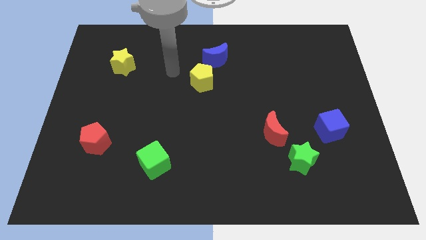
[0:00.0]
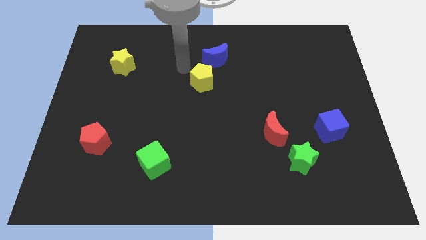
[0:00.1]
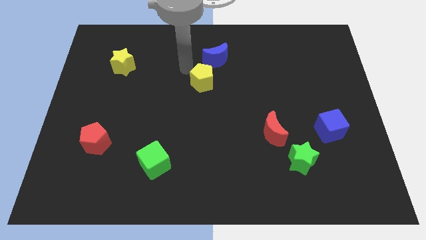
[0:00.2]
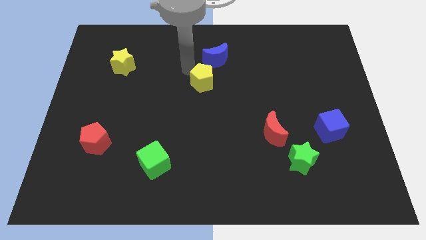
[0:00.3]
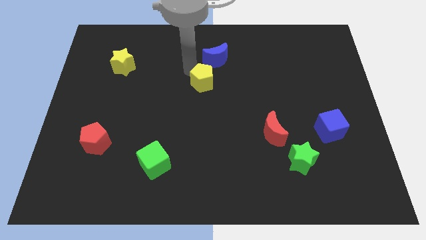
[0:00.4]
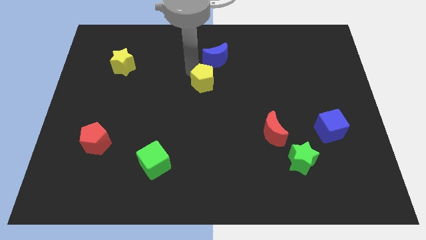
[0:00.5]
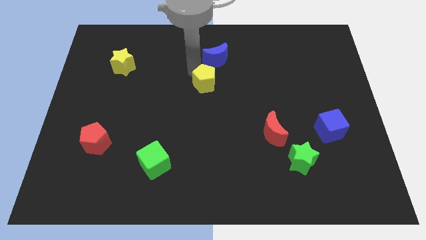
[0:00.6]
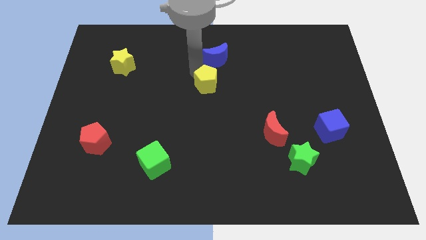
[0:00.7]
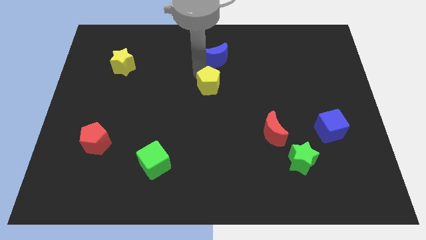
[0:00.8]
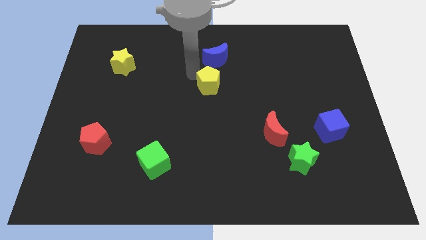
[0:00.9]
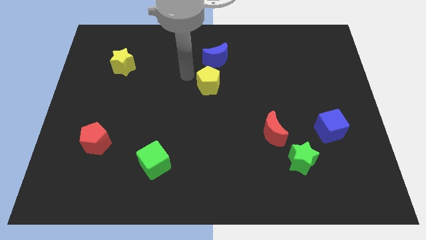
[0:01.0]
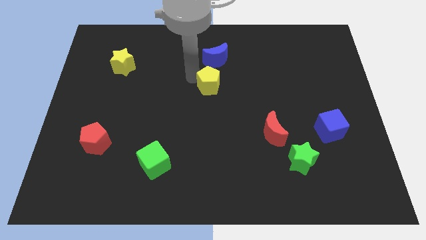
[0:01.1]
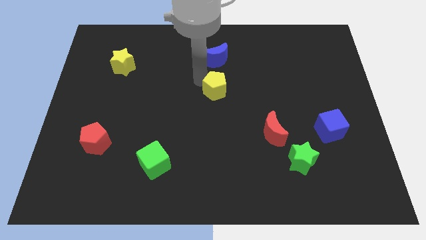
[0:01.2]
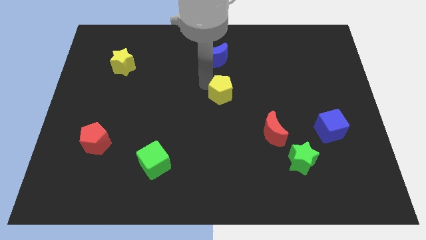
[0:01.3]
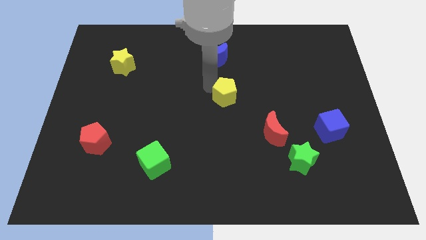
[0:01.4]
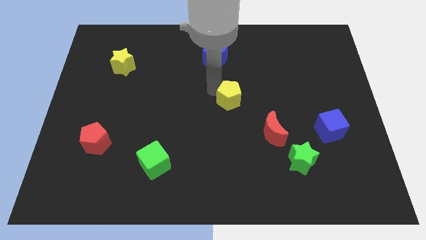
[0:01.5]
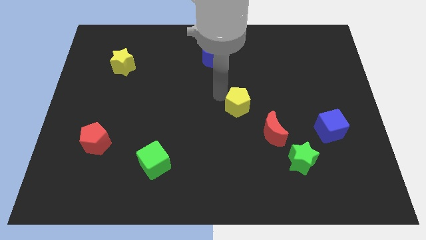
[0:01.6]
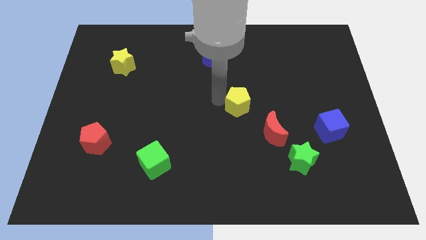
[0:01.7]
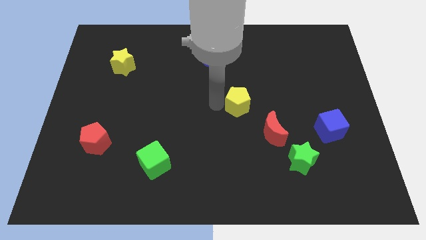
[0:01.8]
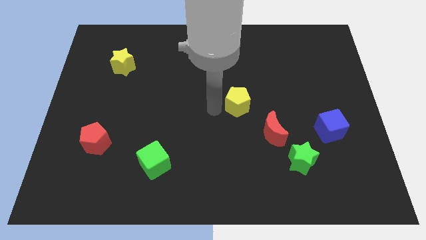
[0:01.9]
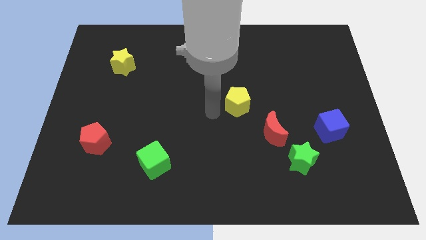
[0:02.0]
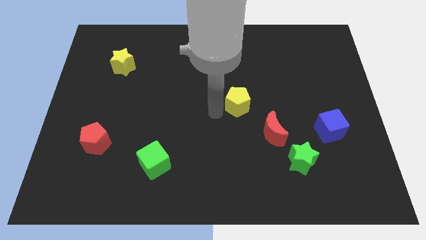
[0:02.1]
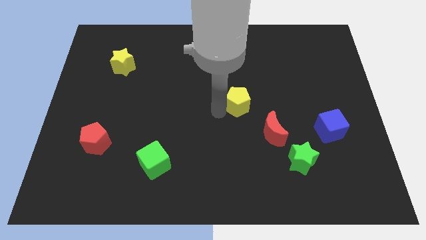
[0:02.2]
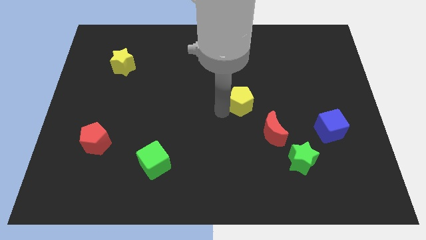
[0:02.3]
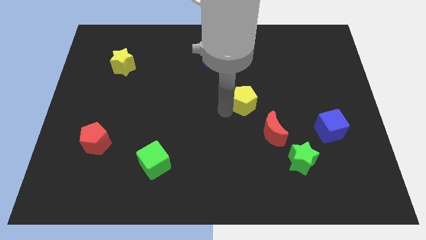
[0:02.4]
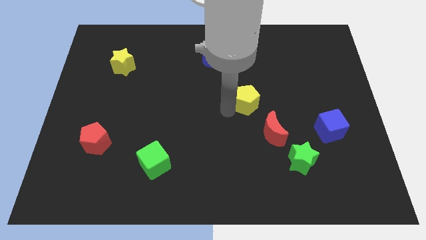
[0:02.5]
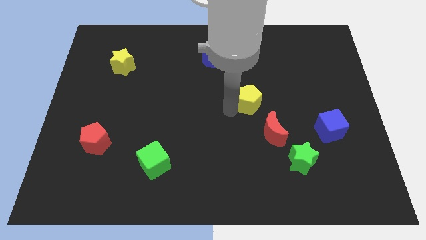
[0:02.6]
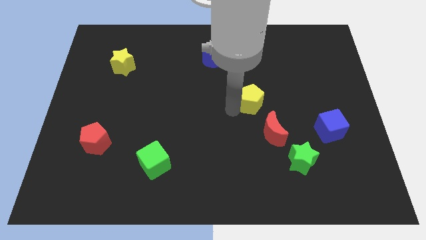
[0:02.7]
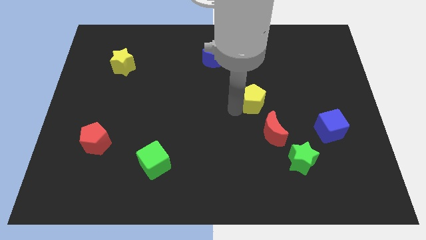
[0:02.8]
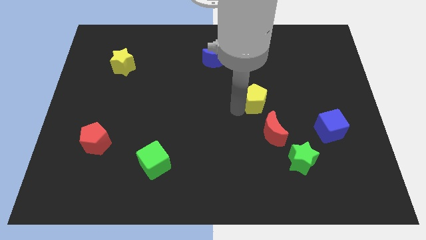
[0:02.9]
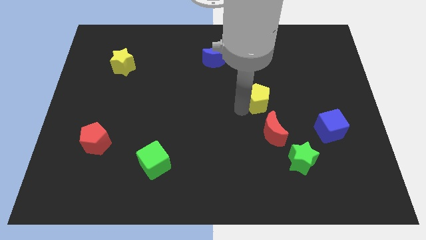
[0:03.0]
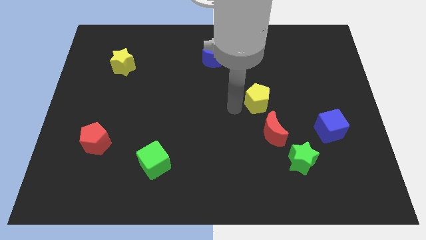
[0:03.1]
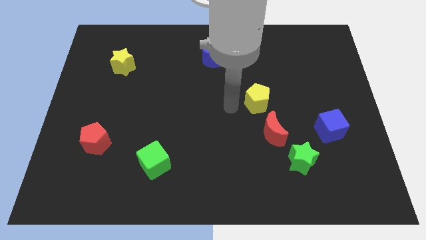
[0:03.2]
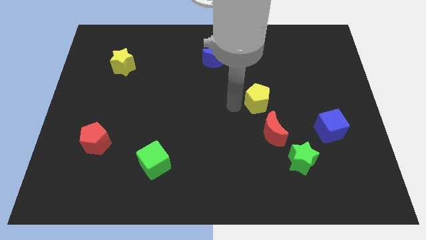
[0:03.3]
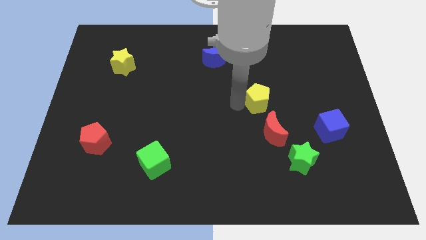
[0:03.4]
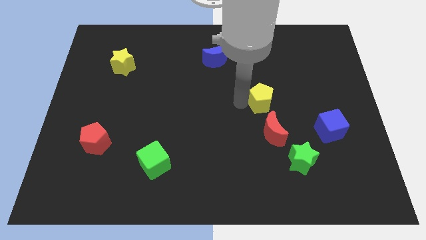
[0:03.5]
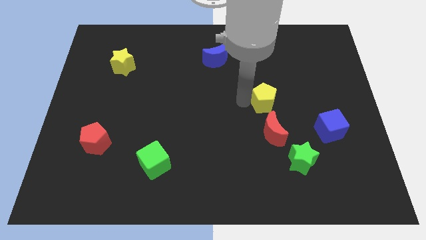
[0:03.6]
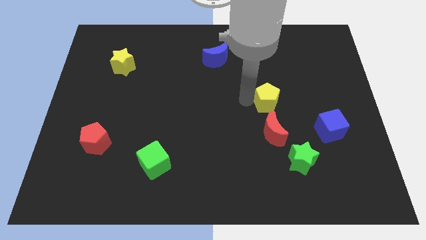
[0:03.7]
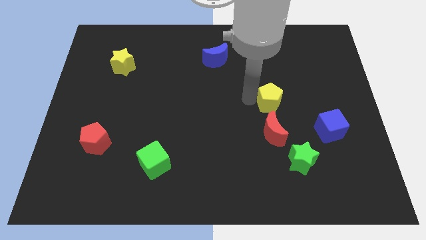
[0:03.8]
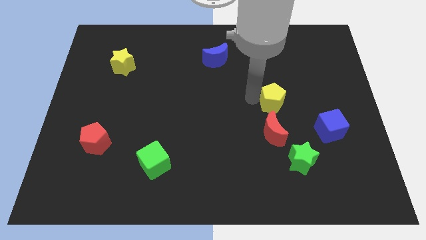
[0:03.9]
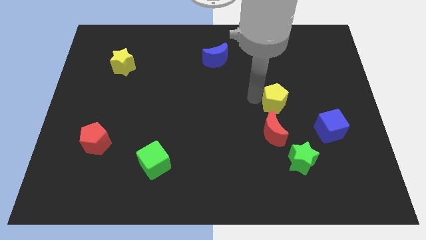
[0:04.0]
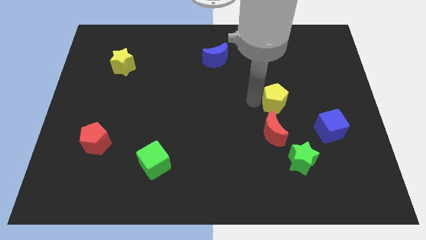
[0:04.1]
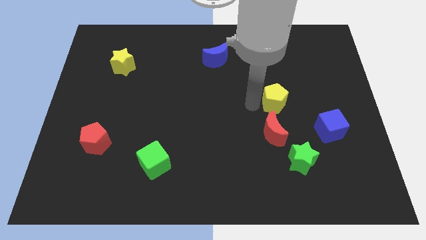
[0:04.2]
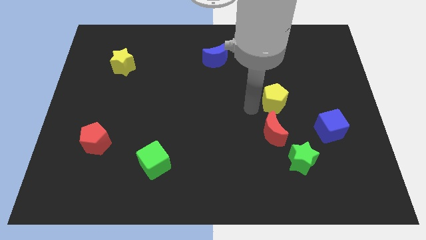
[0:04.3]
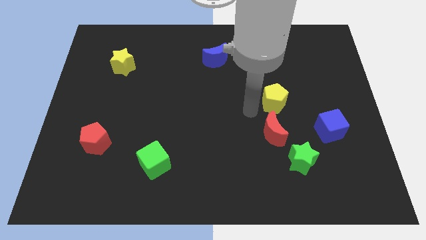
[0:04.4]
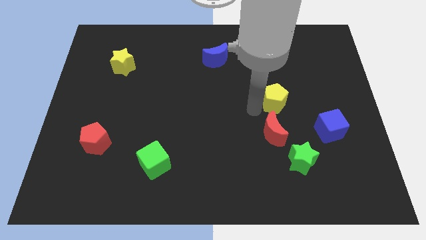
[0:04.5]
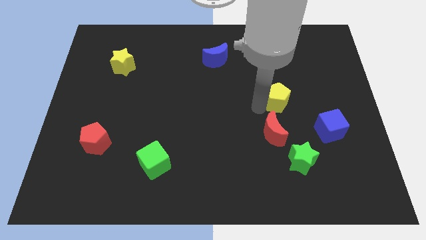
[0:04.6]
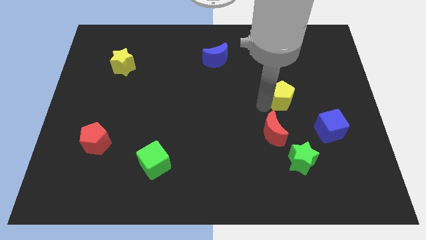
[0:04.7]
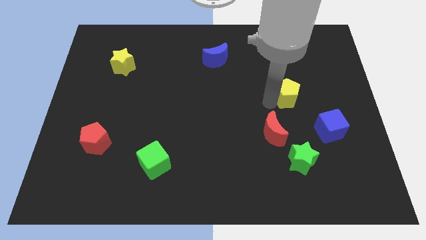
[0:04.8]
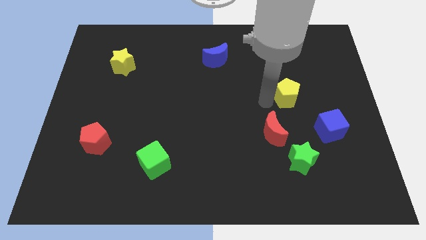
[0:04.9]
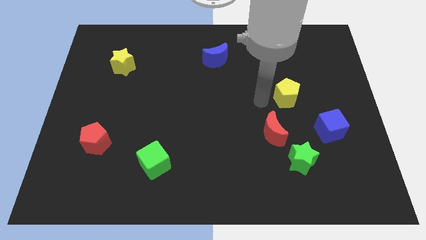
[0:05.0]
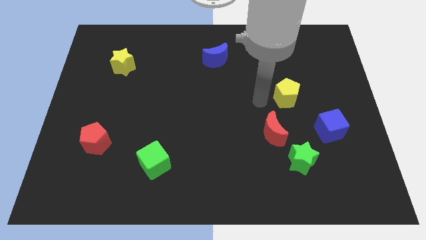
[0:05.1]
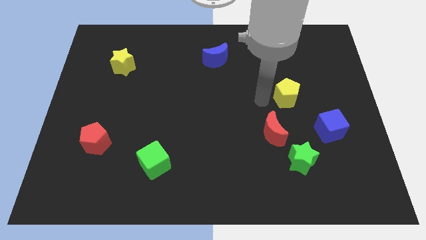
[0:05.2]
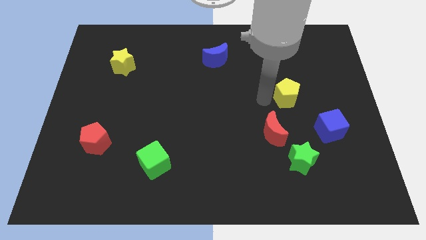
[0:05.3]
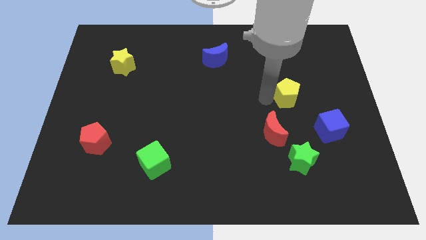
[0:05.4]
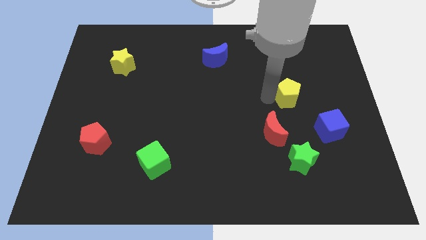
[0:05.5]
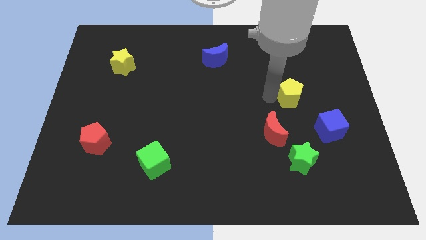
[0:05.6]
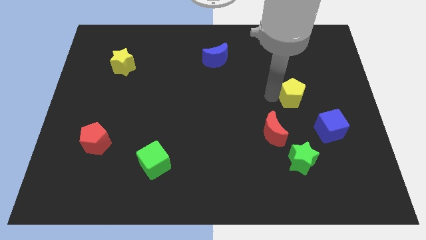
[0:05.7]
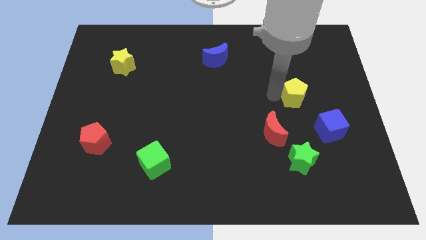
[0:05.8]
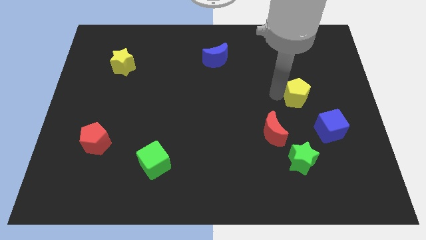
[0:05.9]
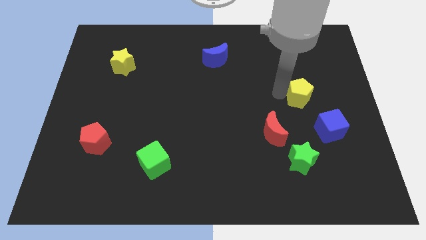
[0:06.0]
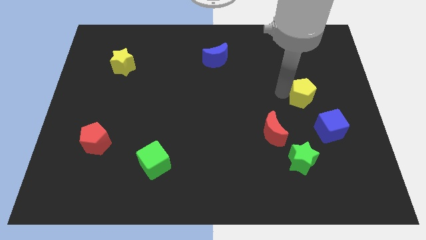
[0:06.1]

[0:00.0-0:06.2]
move the yellow pentagon to the top of the blue cube
